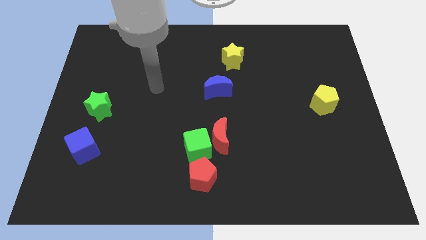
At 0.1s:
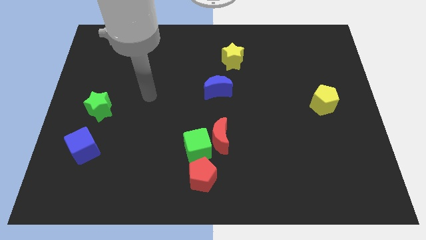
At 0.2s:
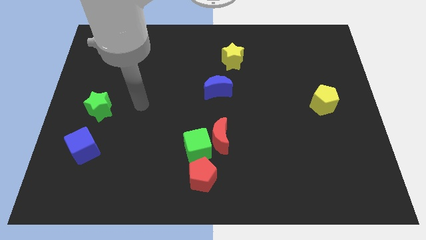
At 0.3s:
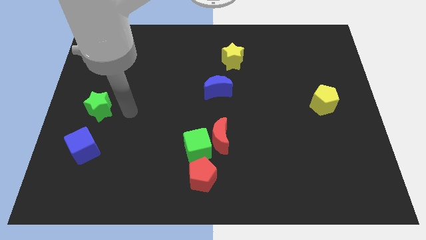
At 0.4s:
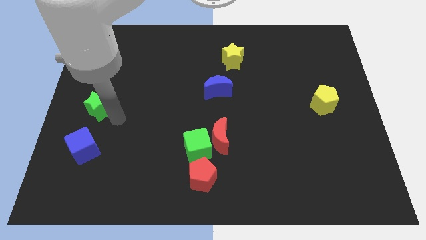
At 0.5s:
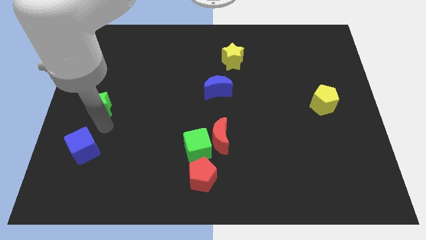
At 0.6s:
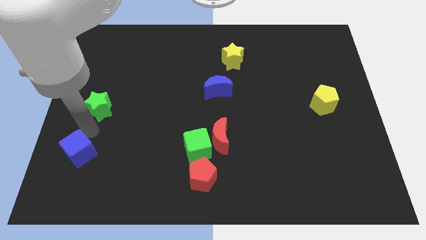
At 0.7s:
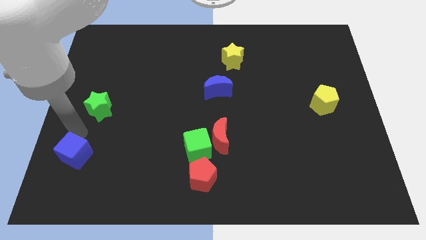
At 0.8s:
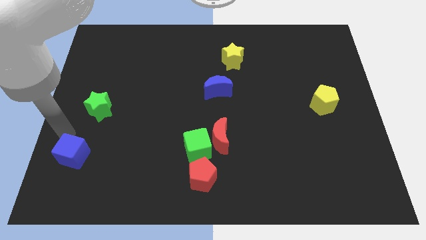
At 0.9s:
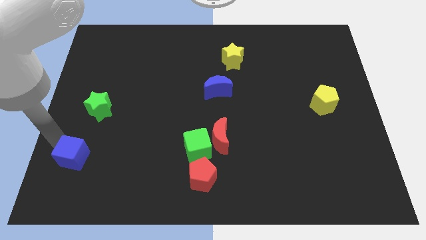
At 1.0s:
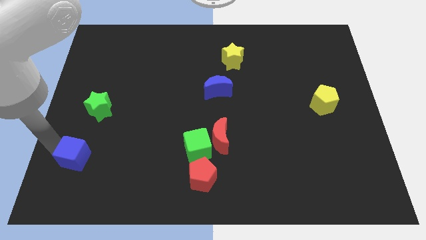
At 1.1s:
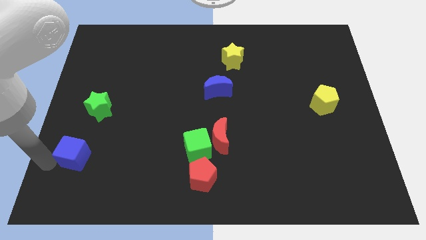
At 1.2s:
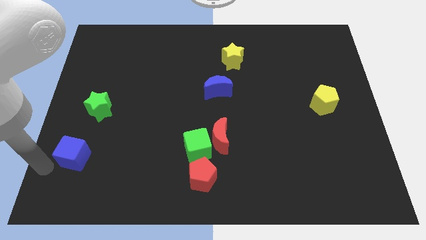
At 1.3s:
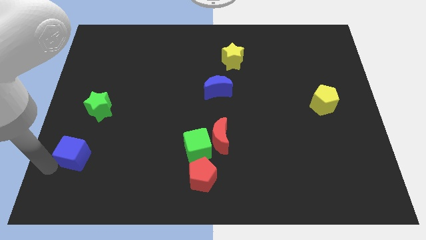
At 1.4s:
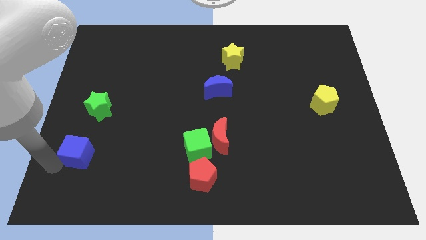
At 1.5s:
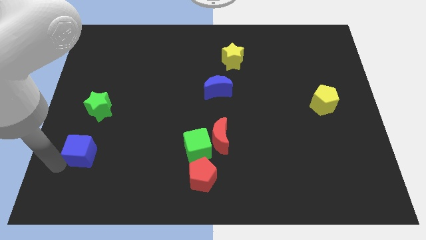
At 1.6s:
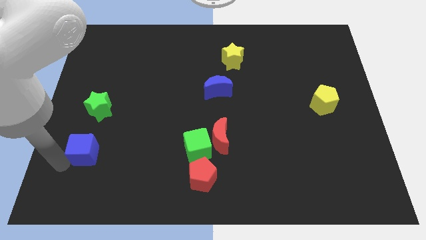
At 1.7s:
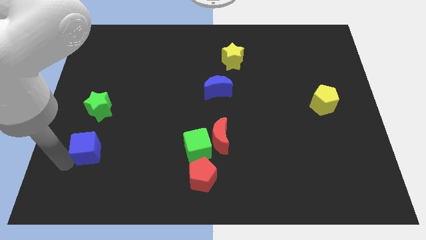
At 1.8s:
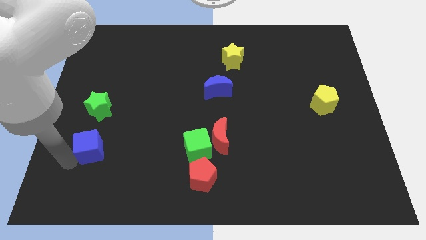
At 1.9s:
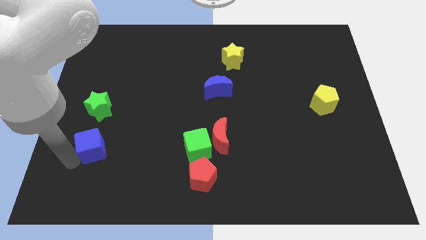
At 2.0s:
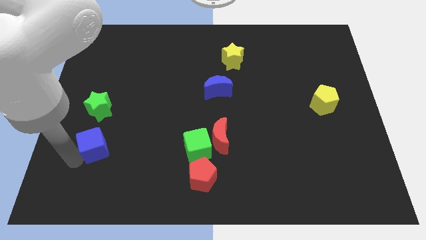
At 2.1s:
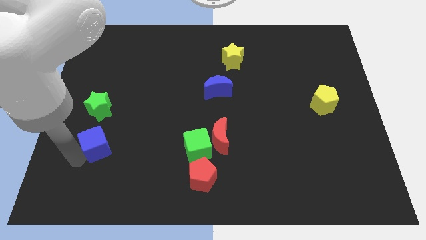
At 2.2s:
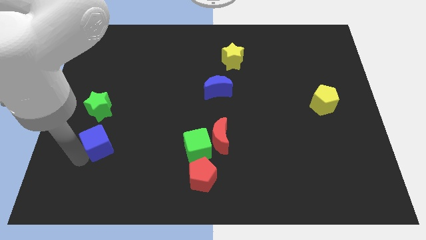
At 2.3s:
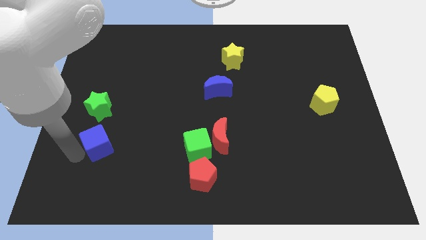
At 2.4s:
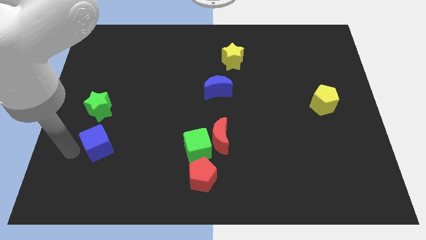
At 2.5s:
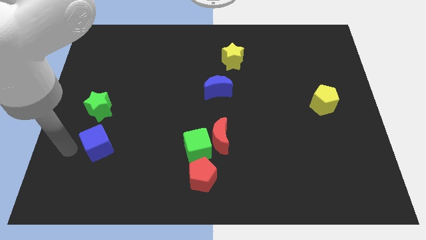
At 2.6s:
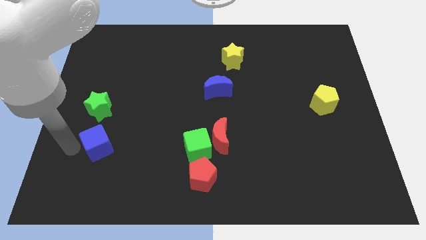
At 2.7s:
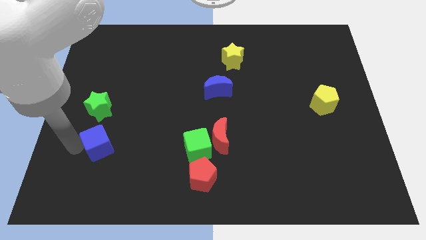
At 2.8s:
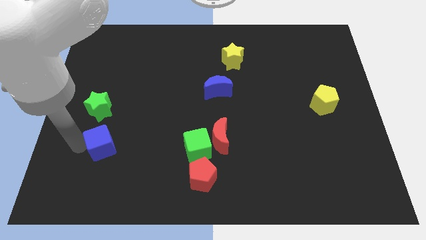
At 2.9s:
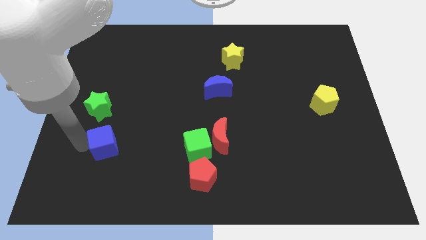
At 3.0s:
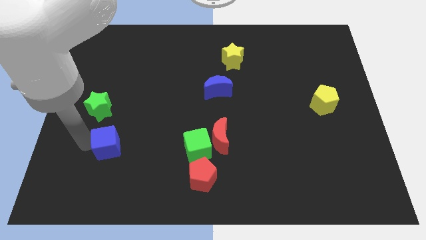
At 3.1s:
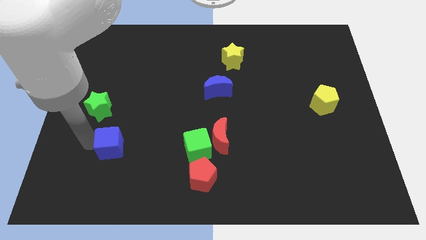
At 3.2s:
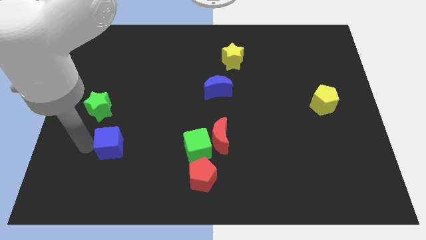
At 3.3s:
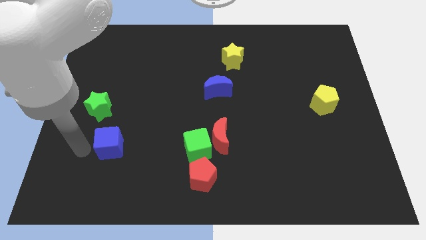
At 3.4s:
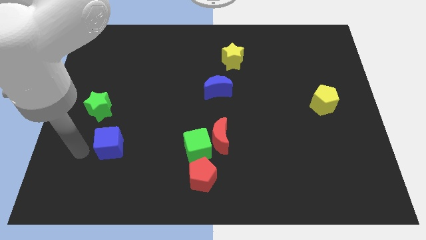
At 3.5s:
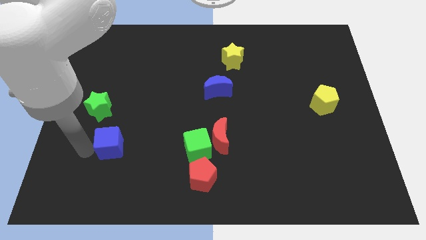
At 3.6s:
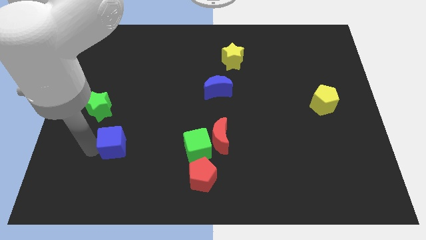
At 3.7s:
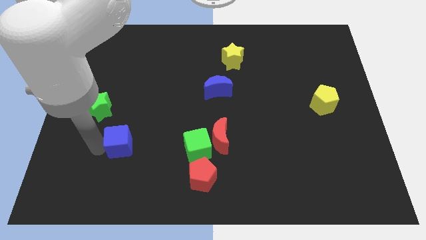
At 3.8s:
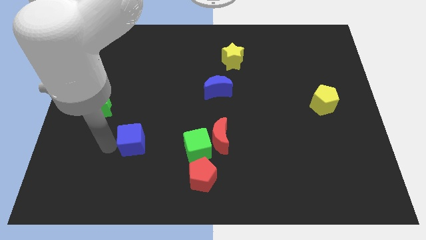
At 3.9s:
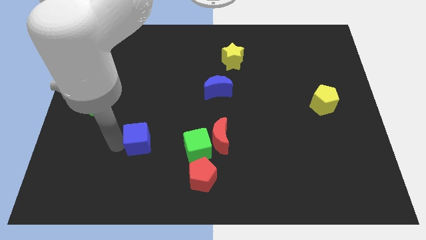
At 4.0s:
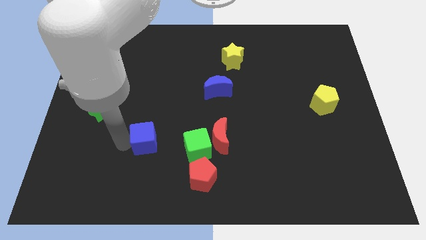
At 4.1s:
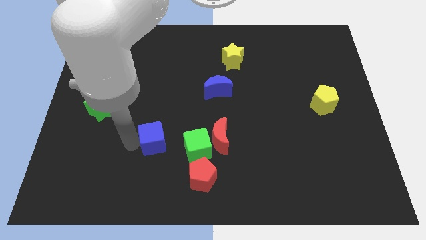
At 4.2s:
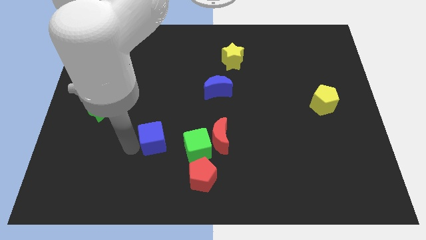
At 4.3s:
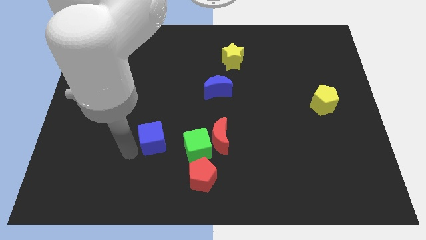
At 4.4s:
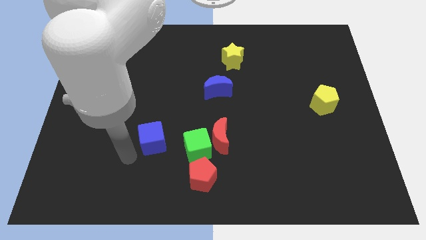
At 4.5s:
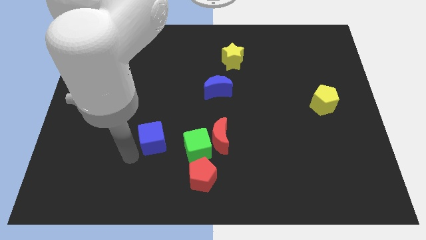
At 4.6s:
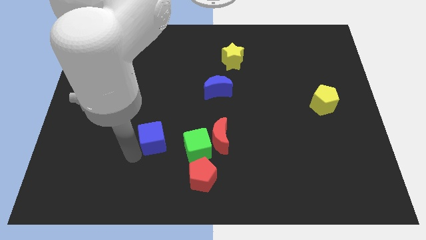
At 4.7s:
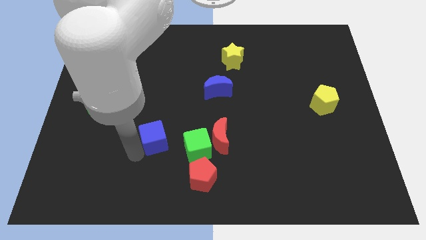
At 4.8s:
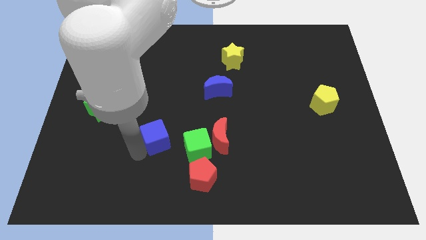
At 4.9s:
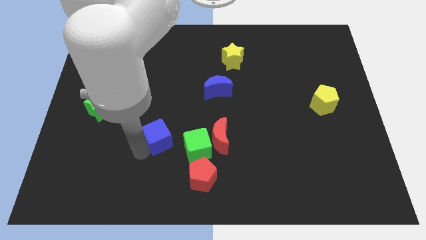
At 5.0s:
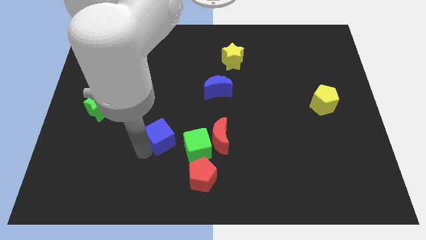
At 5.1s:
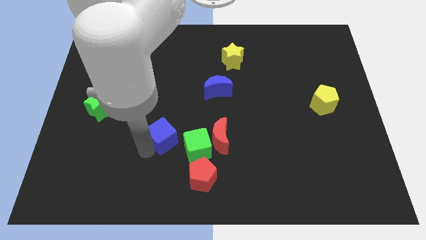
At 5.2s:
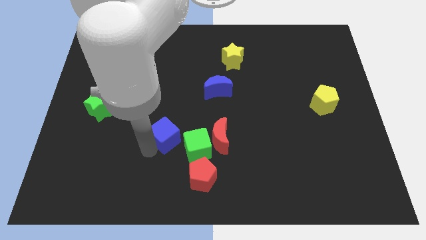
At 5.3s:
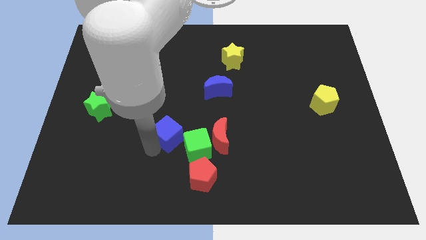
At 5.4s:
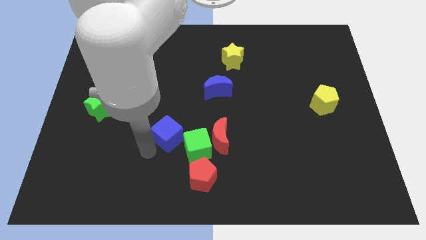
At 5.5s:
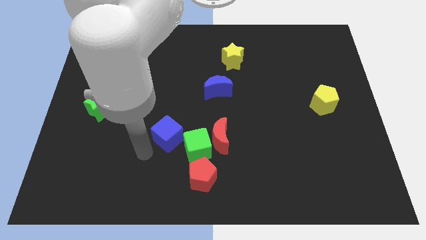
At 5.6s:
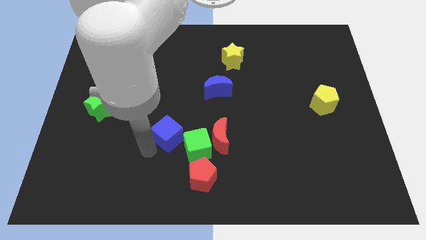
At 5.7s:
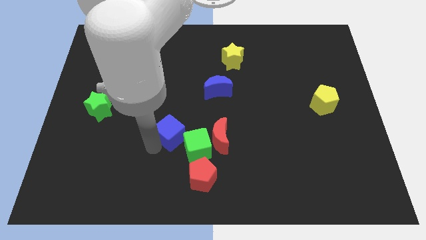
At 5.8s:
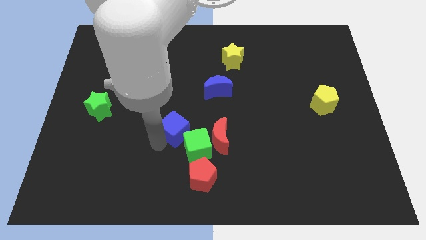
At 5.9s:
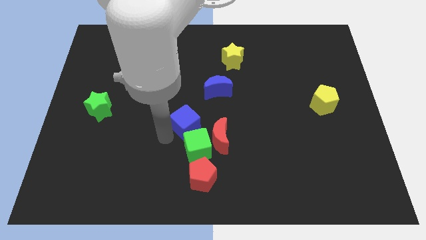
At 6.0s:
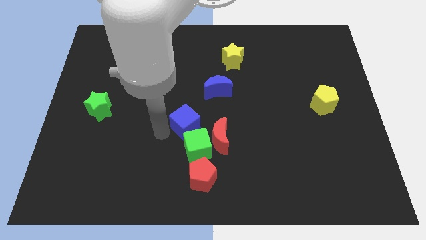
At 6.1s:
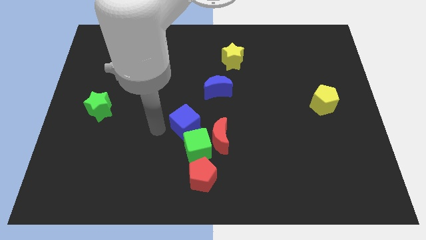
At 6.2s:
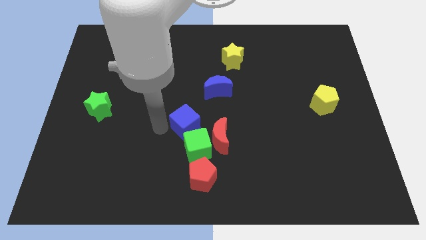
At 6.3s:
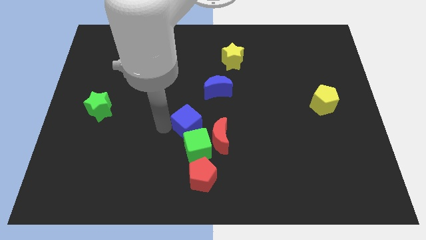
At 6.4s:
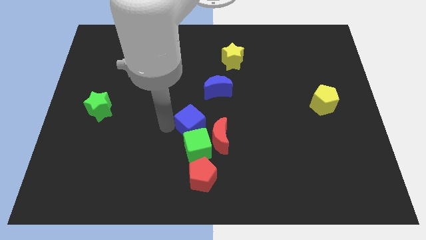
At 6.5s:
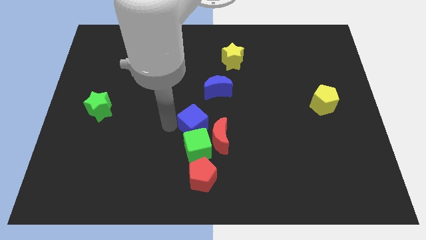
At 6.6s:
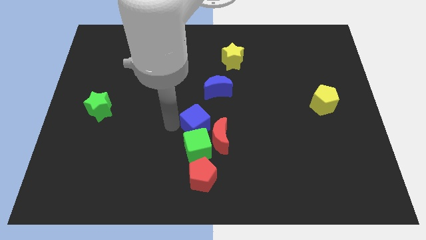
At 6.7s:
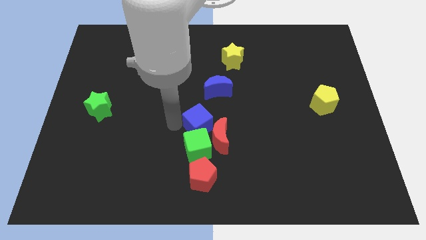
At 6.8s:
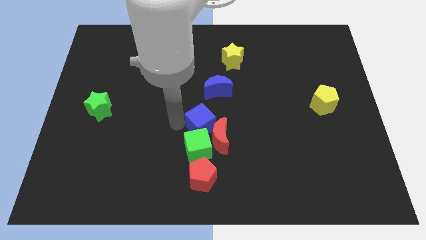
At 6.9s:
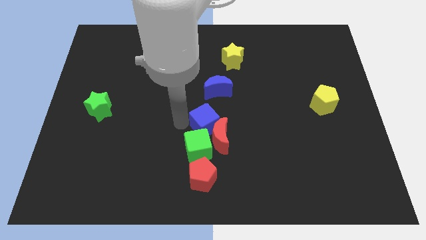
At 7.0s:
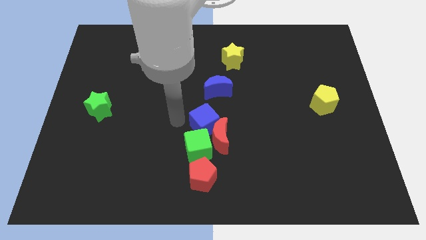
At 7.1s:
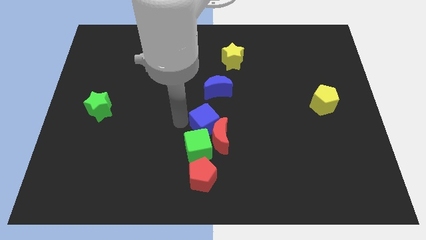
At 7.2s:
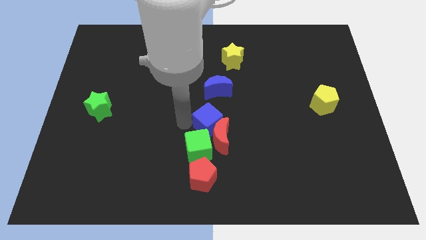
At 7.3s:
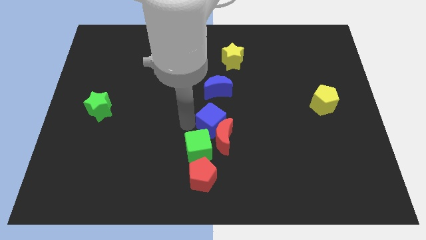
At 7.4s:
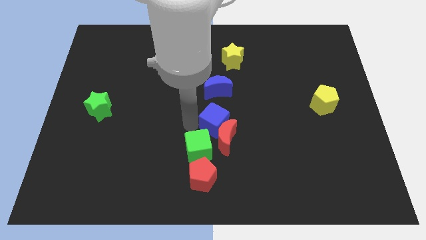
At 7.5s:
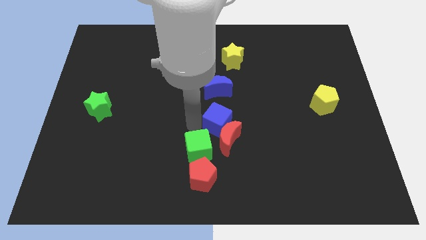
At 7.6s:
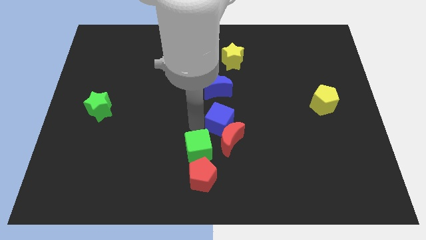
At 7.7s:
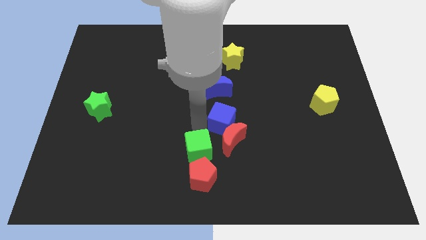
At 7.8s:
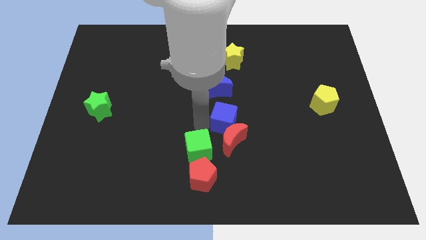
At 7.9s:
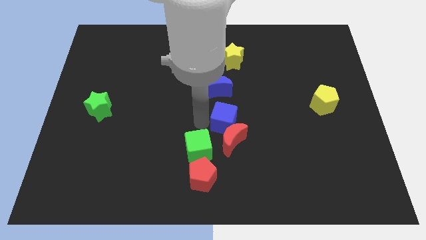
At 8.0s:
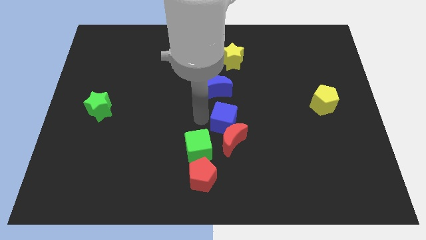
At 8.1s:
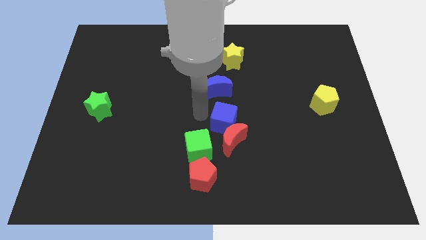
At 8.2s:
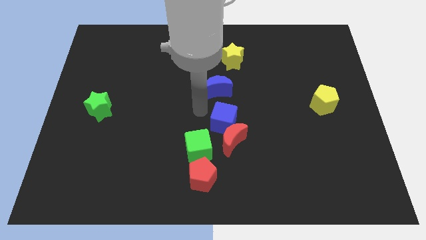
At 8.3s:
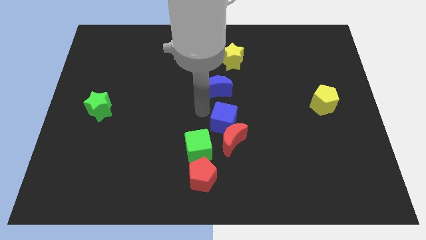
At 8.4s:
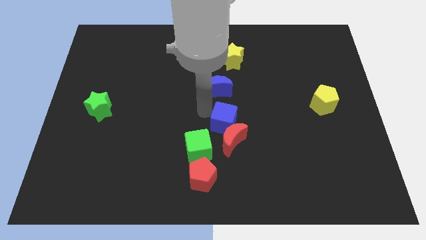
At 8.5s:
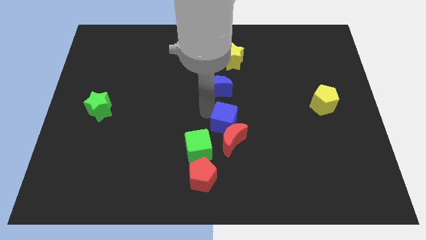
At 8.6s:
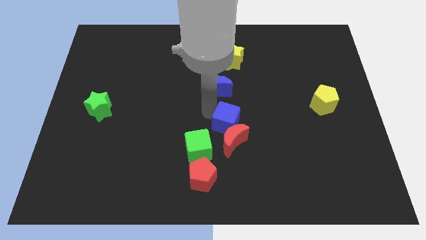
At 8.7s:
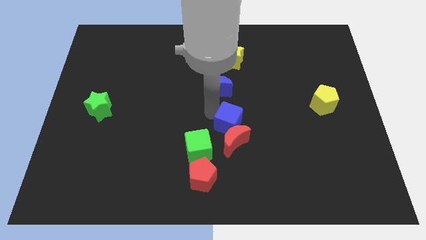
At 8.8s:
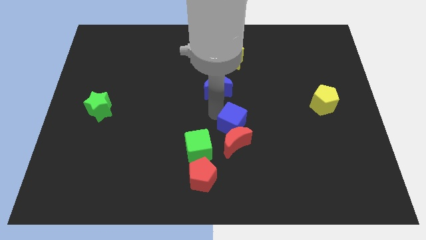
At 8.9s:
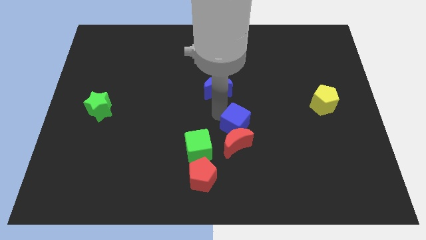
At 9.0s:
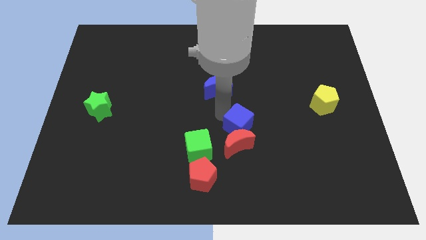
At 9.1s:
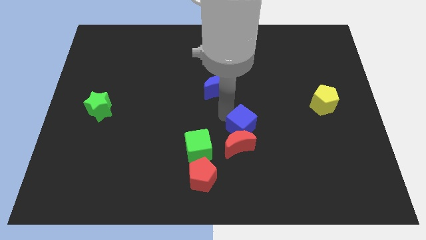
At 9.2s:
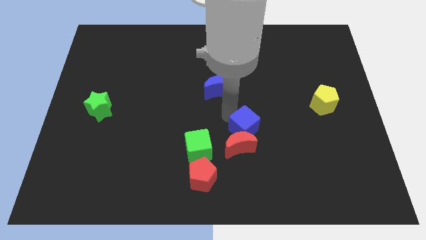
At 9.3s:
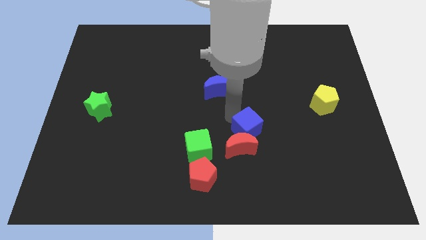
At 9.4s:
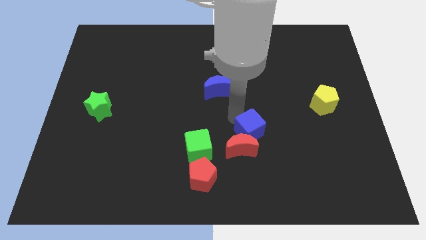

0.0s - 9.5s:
move the blue cube just right of the green cube
